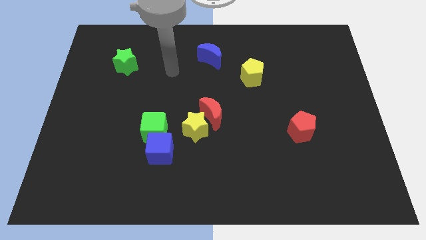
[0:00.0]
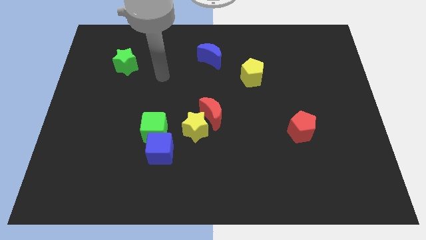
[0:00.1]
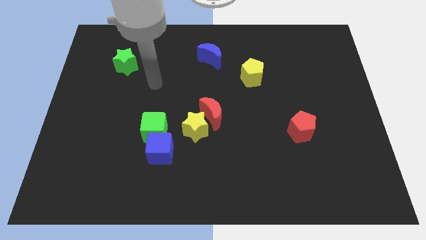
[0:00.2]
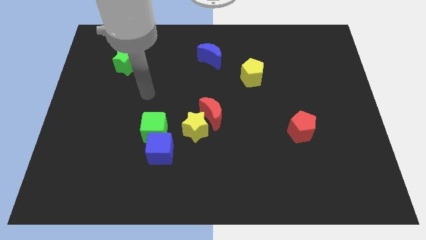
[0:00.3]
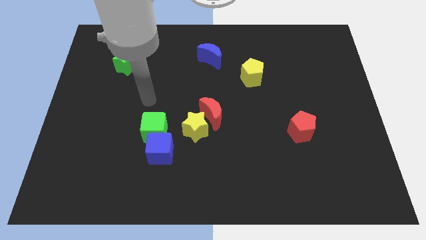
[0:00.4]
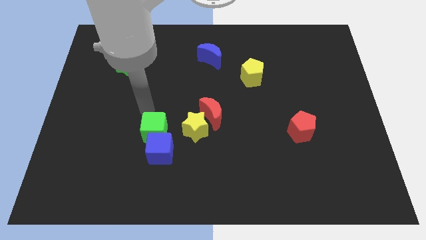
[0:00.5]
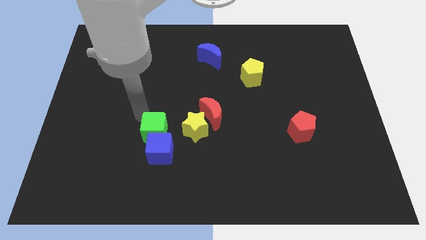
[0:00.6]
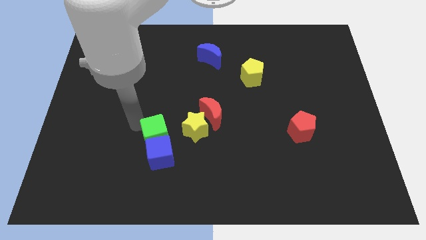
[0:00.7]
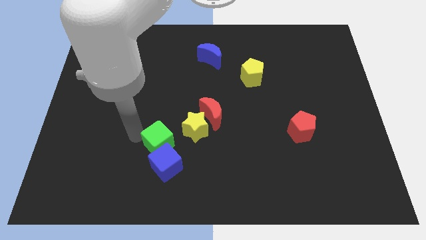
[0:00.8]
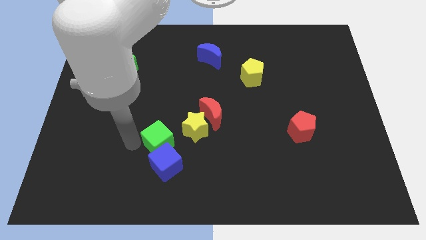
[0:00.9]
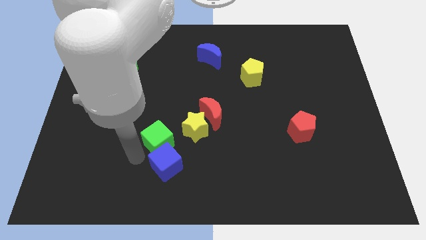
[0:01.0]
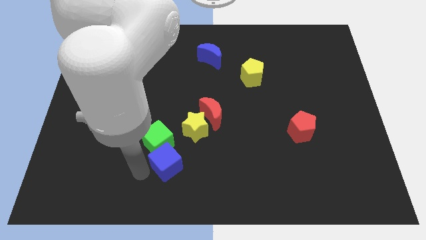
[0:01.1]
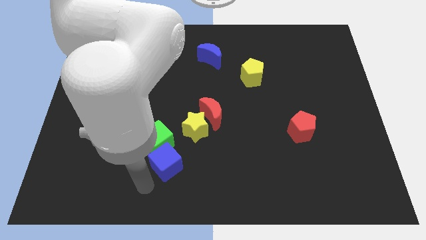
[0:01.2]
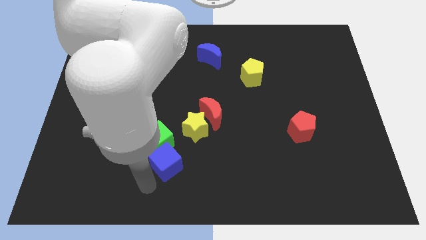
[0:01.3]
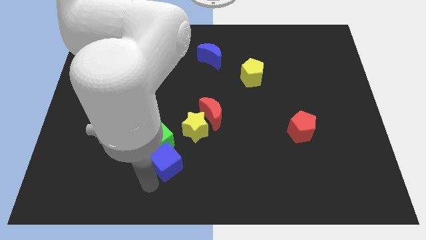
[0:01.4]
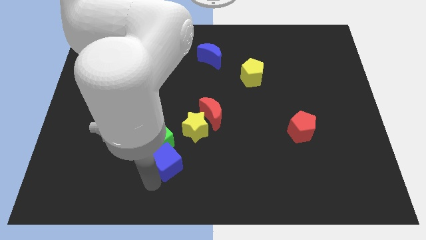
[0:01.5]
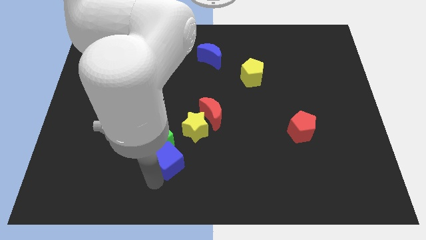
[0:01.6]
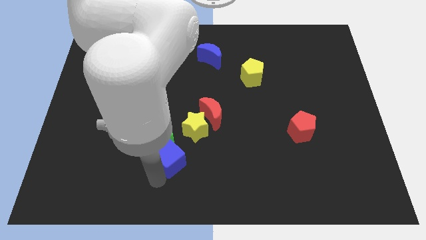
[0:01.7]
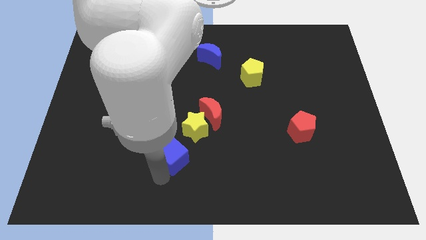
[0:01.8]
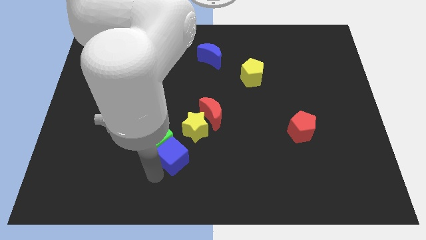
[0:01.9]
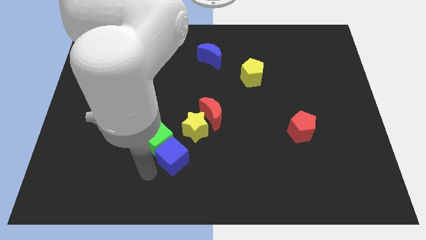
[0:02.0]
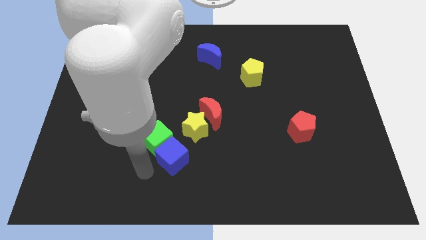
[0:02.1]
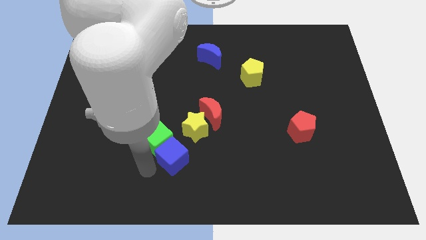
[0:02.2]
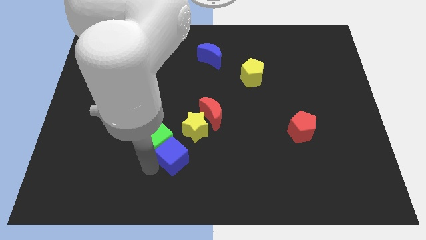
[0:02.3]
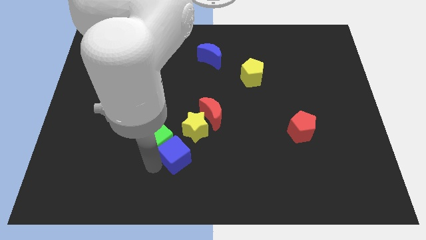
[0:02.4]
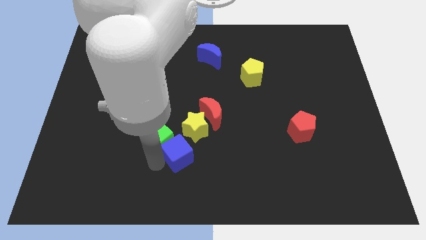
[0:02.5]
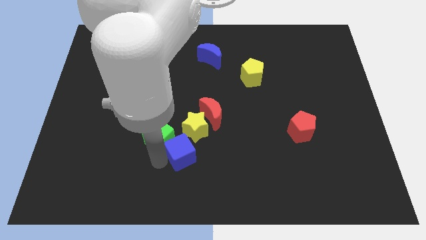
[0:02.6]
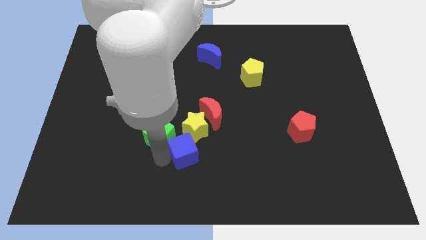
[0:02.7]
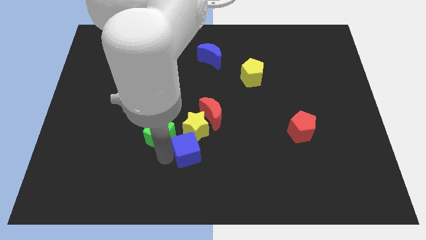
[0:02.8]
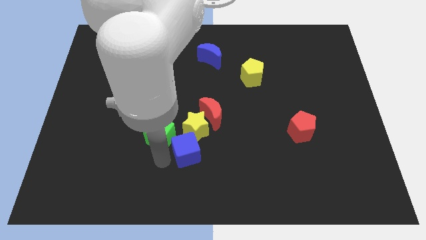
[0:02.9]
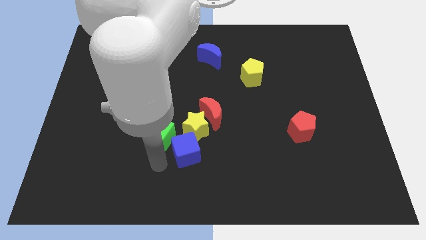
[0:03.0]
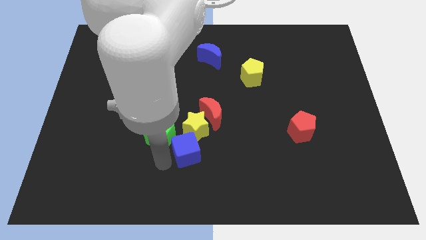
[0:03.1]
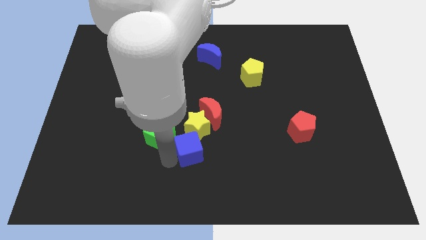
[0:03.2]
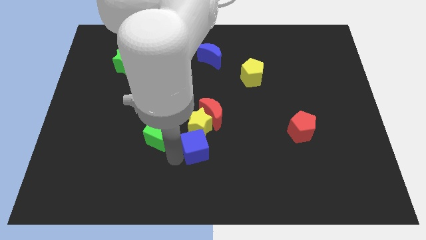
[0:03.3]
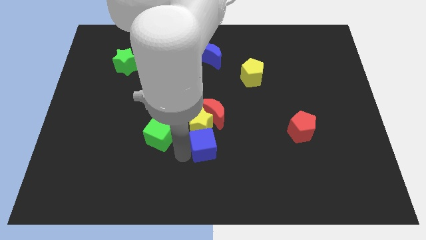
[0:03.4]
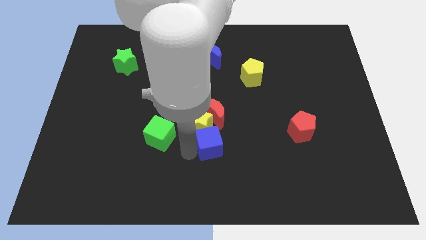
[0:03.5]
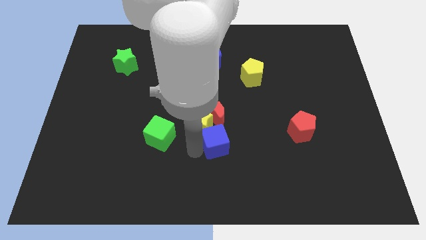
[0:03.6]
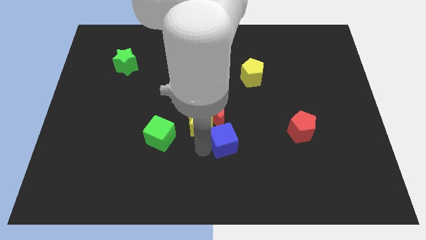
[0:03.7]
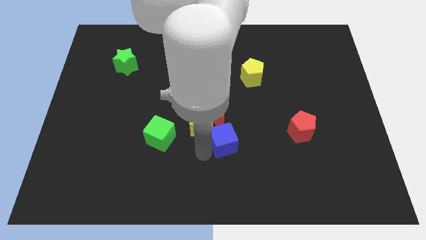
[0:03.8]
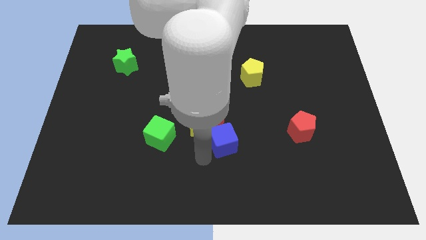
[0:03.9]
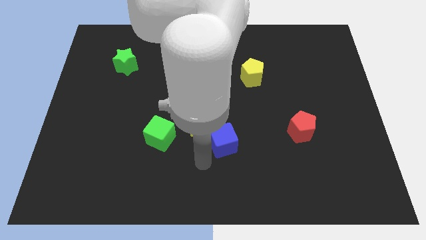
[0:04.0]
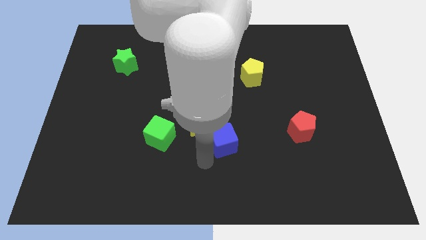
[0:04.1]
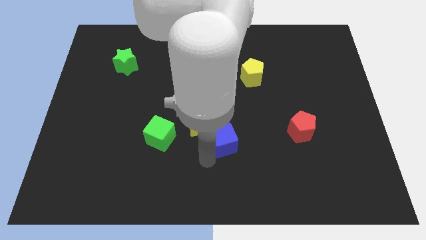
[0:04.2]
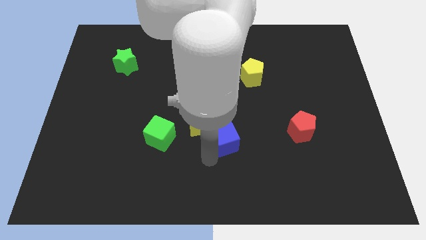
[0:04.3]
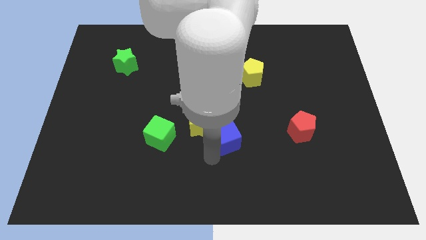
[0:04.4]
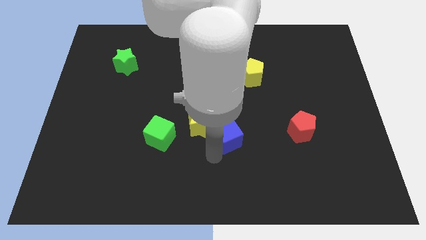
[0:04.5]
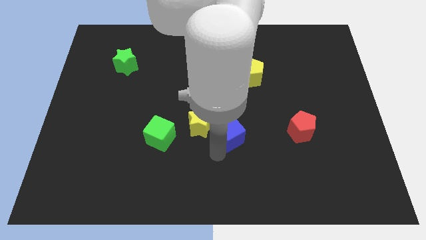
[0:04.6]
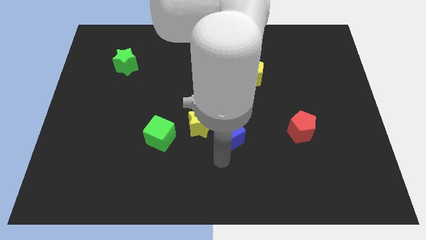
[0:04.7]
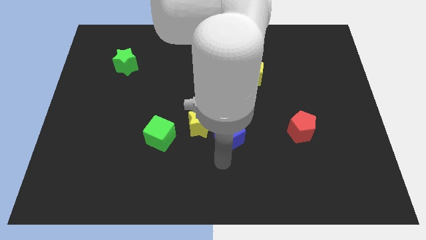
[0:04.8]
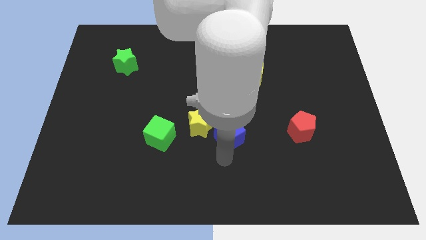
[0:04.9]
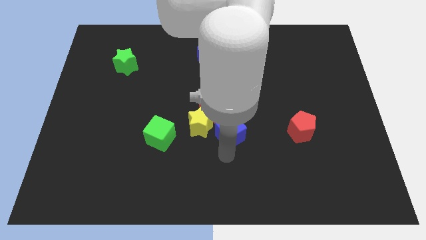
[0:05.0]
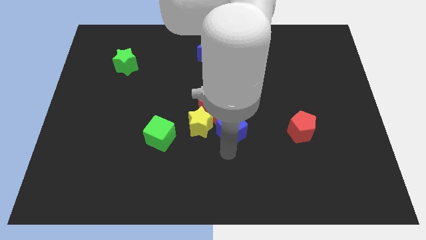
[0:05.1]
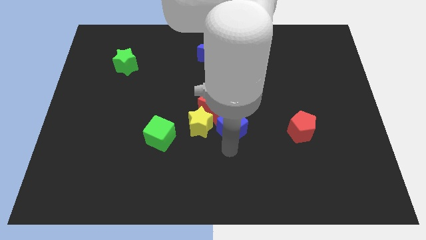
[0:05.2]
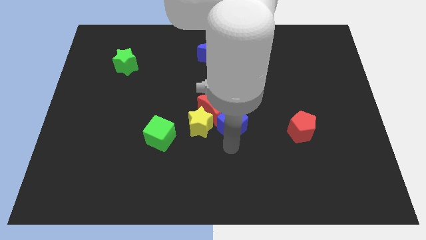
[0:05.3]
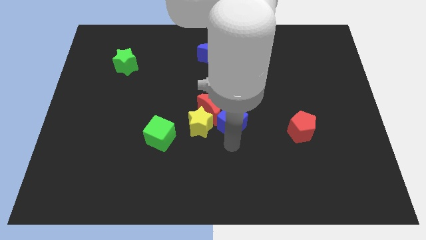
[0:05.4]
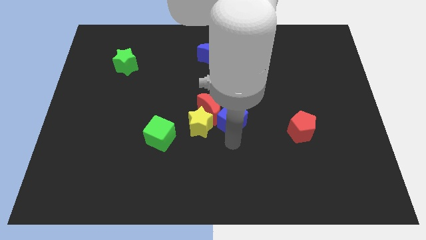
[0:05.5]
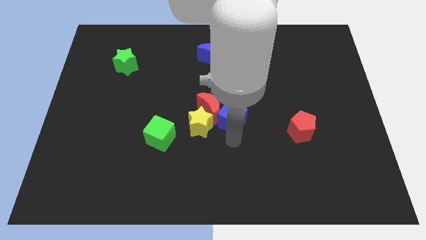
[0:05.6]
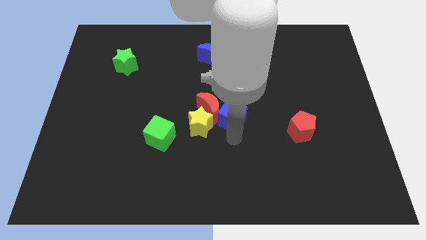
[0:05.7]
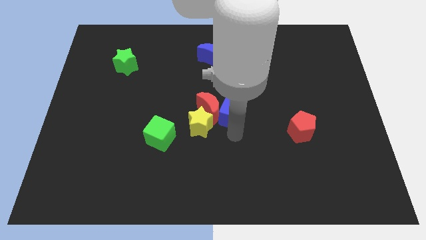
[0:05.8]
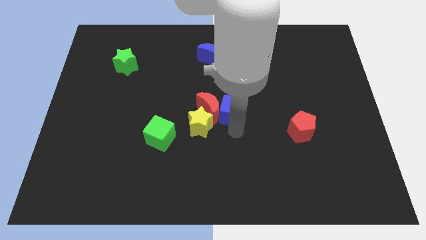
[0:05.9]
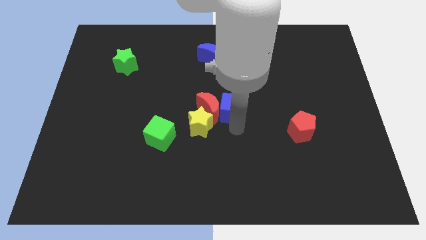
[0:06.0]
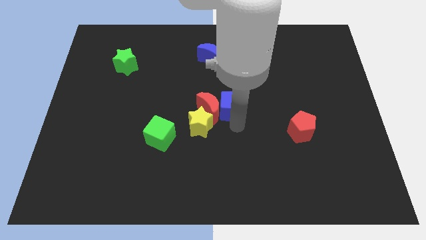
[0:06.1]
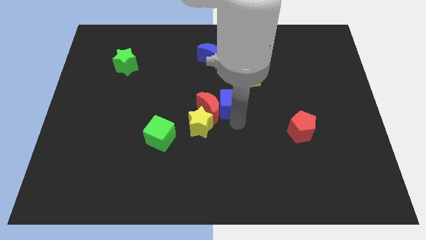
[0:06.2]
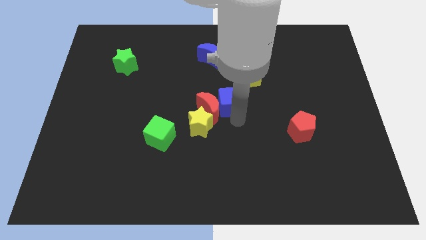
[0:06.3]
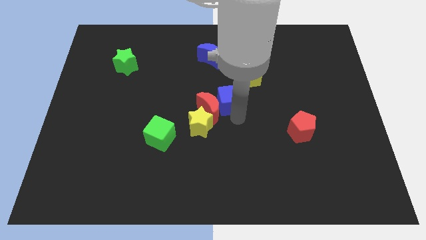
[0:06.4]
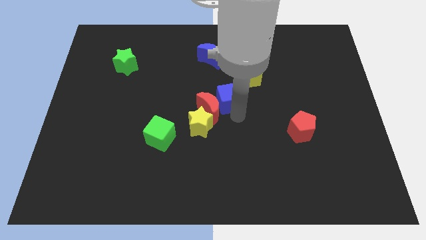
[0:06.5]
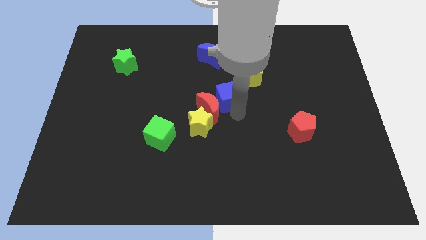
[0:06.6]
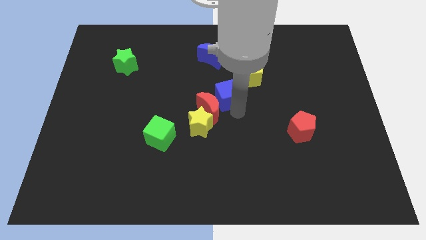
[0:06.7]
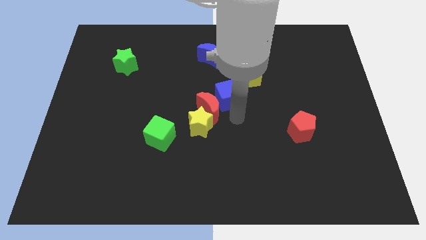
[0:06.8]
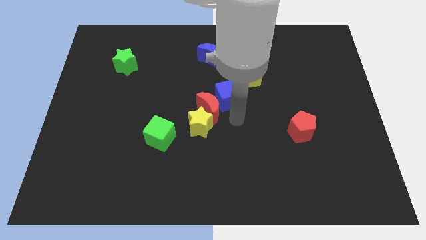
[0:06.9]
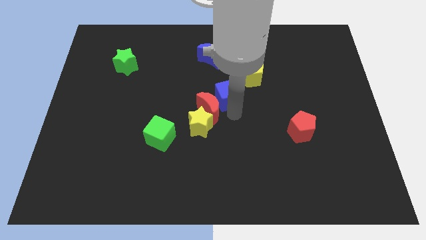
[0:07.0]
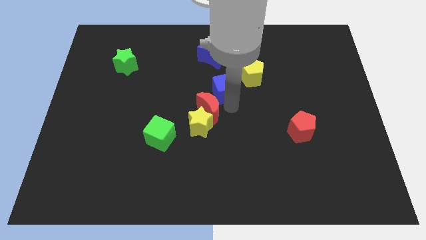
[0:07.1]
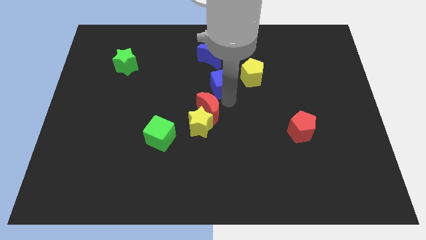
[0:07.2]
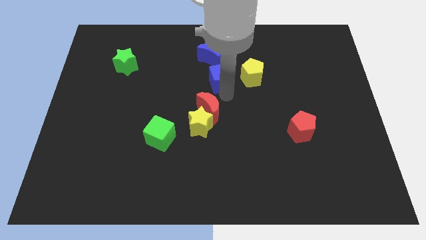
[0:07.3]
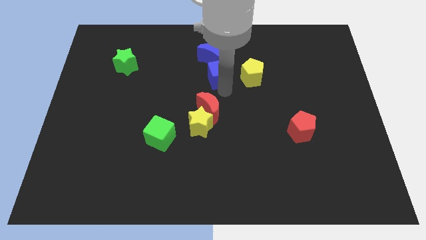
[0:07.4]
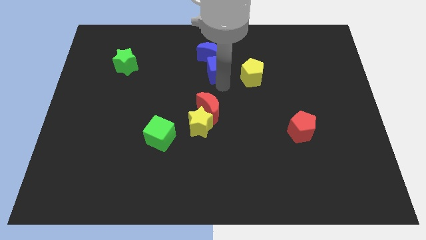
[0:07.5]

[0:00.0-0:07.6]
put the blue cube towards the blue moon
